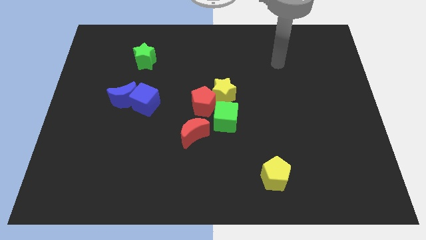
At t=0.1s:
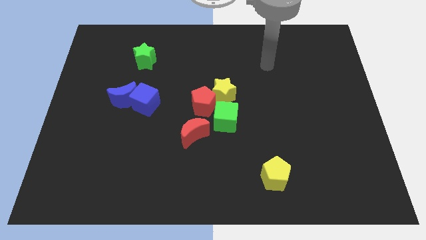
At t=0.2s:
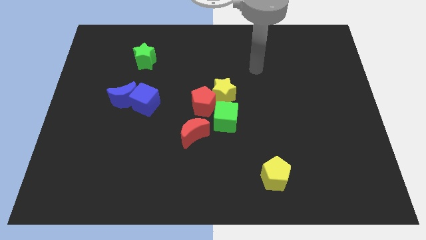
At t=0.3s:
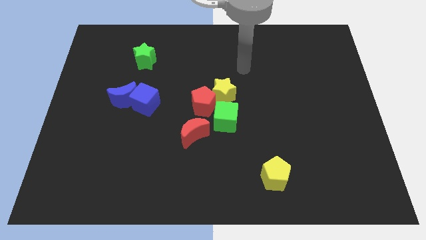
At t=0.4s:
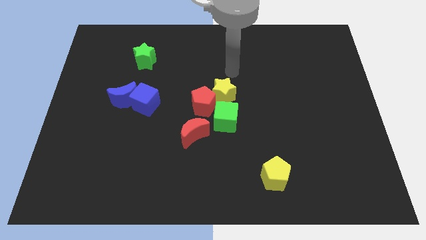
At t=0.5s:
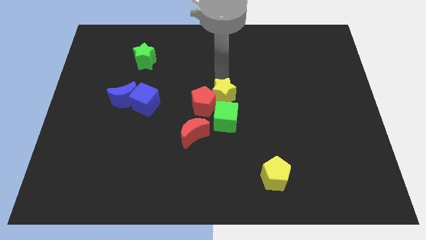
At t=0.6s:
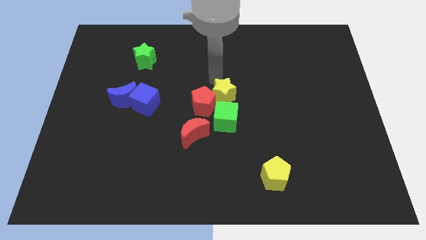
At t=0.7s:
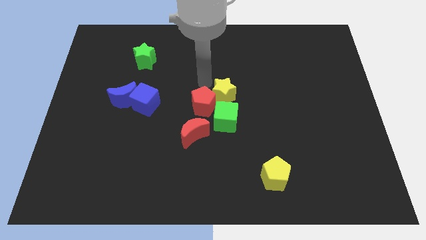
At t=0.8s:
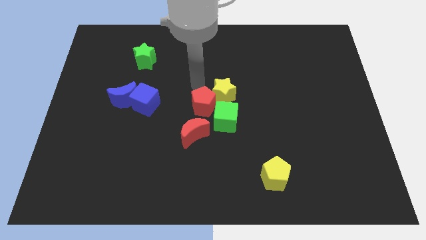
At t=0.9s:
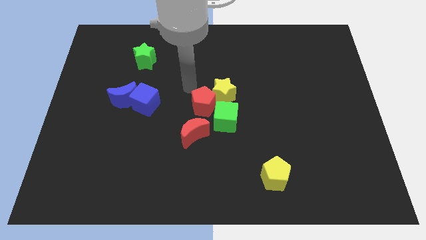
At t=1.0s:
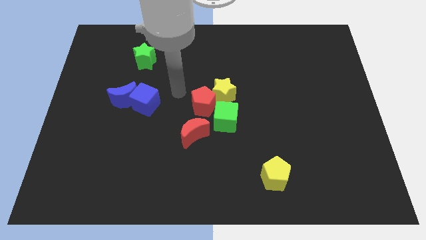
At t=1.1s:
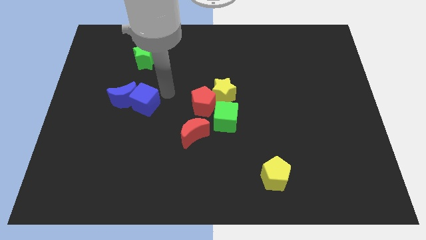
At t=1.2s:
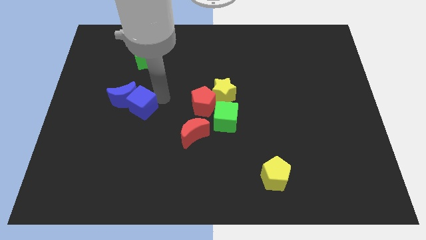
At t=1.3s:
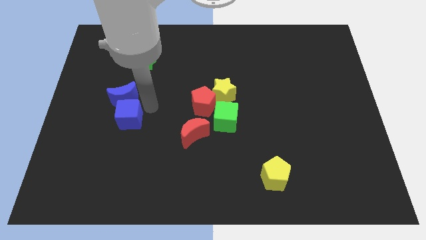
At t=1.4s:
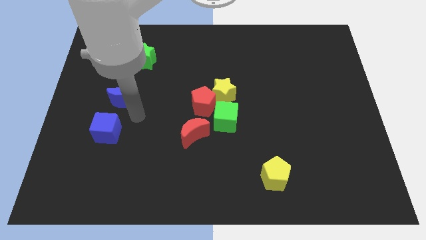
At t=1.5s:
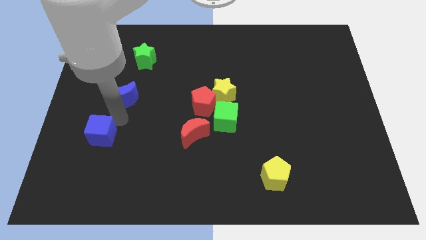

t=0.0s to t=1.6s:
pull the blue moon apart from the blue cube

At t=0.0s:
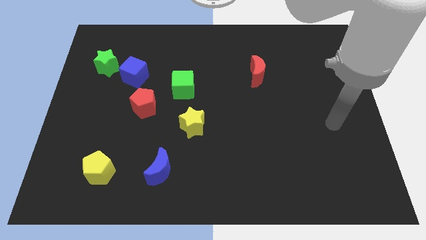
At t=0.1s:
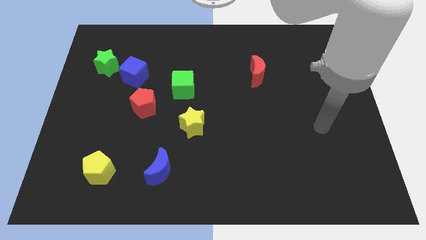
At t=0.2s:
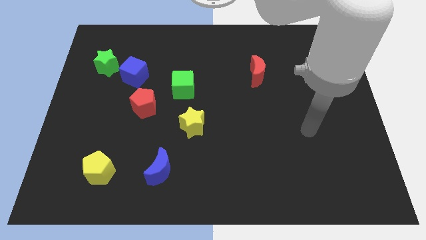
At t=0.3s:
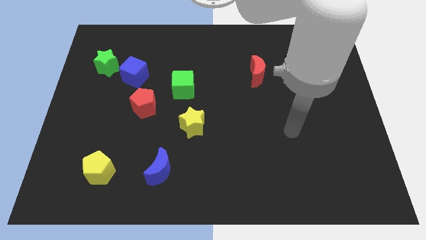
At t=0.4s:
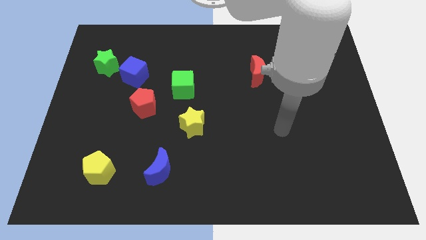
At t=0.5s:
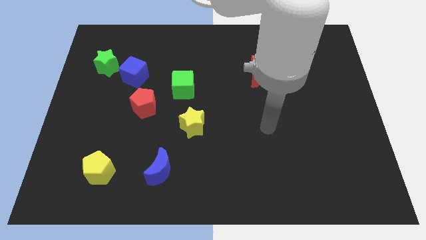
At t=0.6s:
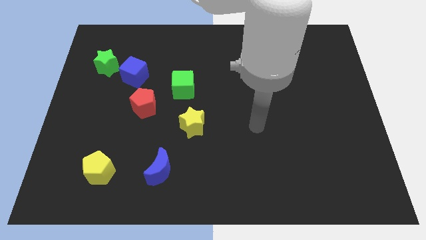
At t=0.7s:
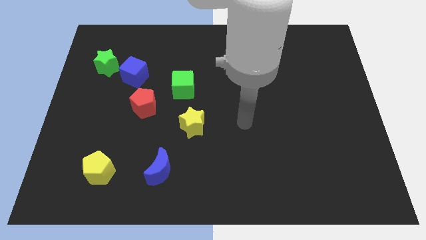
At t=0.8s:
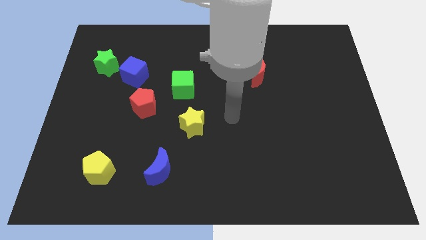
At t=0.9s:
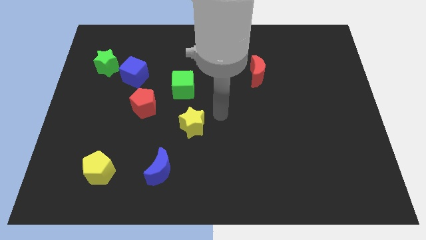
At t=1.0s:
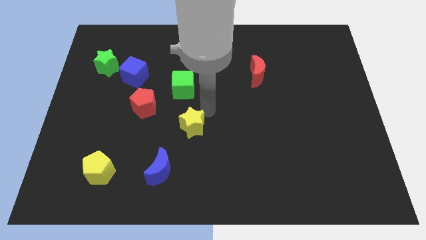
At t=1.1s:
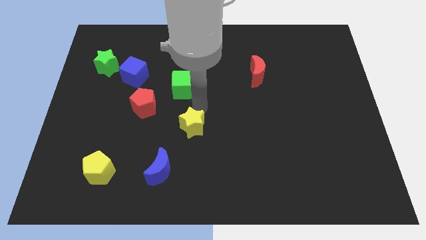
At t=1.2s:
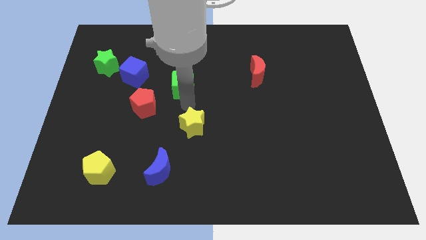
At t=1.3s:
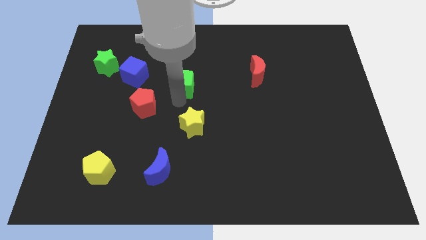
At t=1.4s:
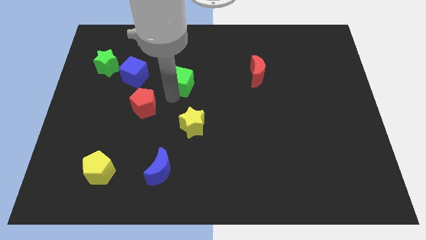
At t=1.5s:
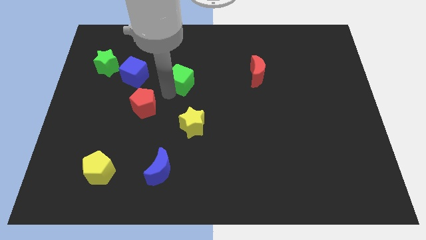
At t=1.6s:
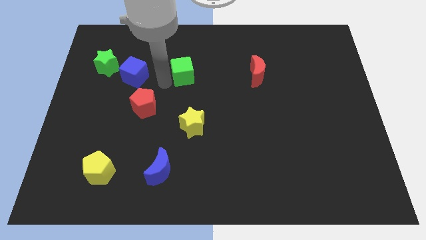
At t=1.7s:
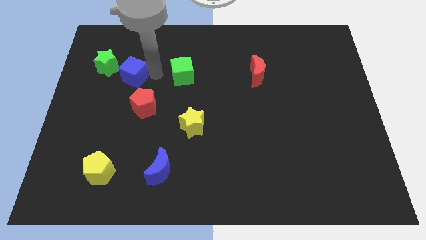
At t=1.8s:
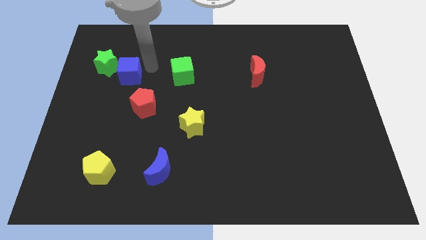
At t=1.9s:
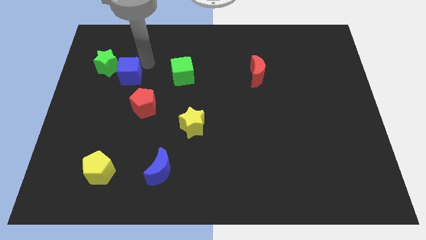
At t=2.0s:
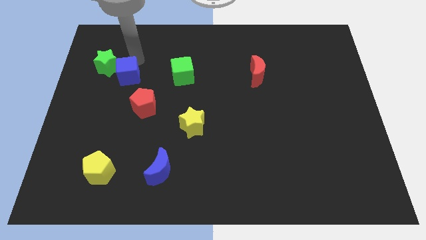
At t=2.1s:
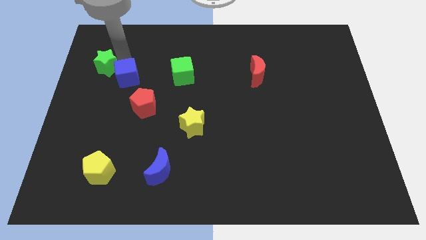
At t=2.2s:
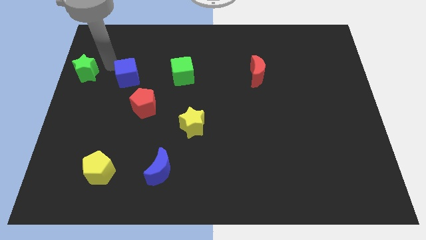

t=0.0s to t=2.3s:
pull the blue cube apart from the green star

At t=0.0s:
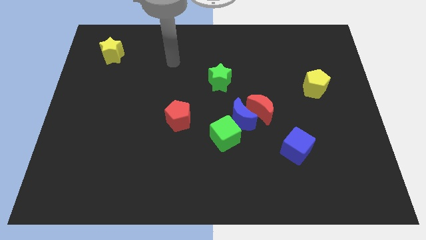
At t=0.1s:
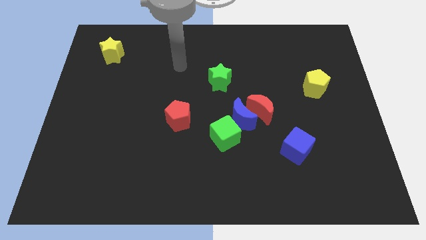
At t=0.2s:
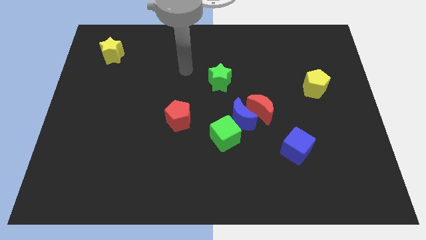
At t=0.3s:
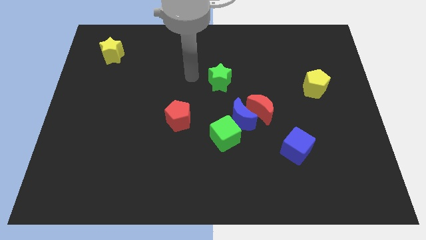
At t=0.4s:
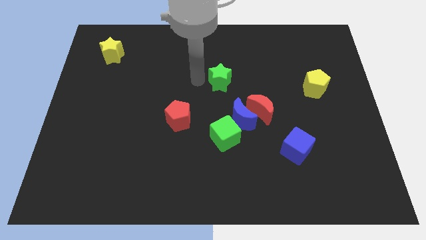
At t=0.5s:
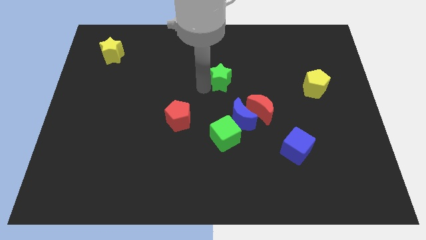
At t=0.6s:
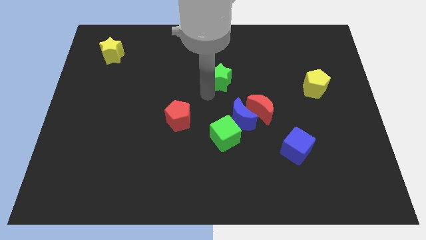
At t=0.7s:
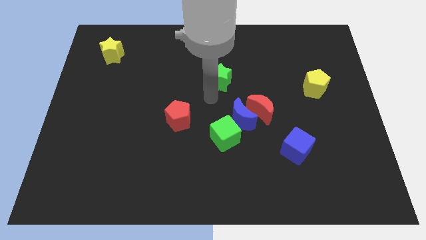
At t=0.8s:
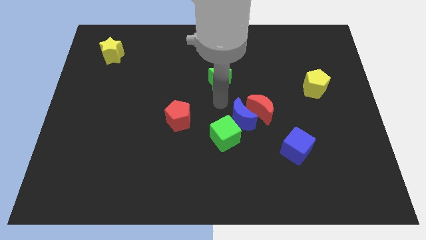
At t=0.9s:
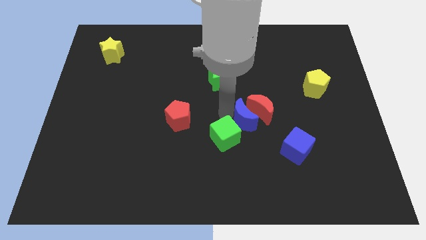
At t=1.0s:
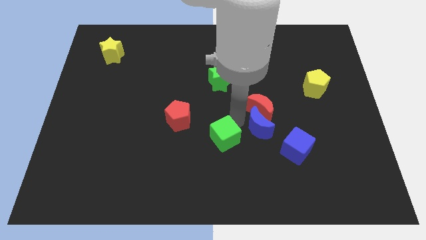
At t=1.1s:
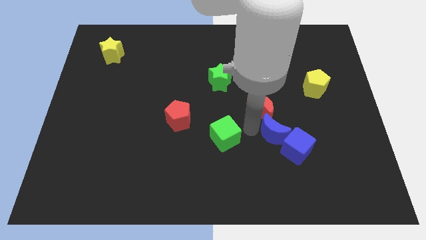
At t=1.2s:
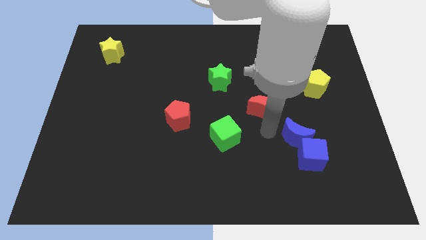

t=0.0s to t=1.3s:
move the red moon away from the blue moon

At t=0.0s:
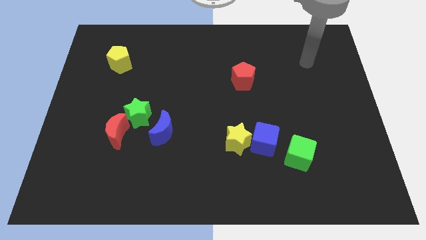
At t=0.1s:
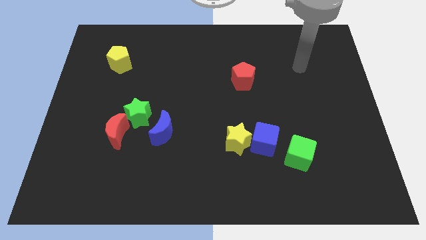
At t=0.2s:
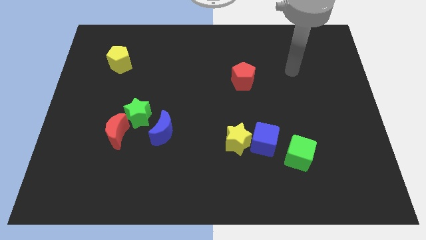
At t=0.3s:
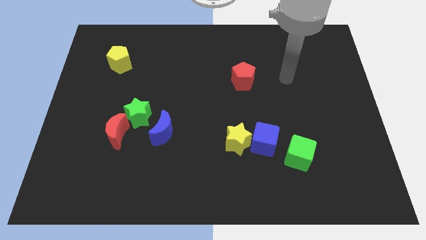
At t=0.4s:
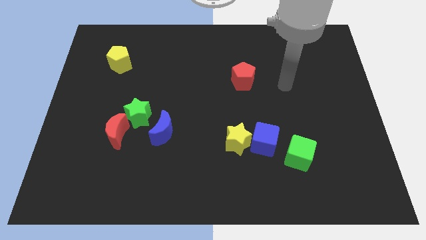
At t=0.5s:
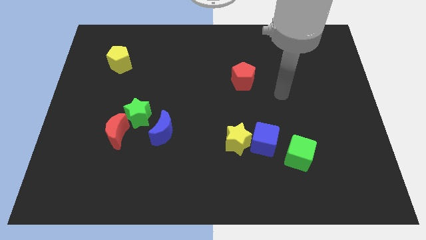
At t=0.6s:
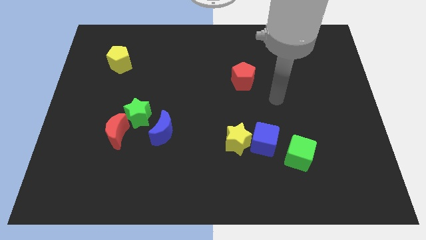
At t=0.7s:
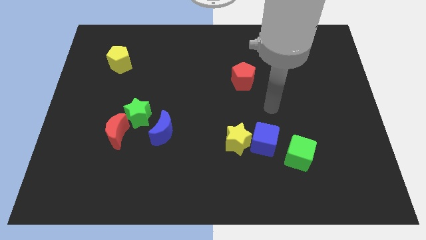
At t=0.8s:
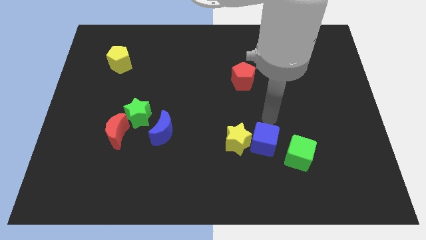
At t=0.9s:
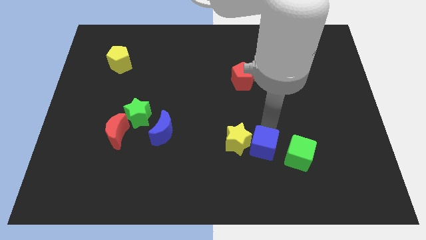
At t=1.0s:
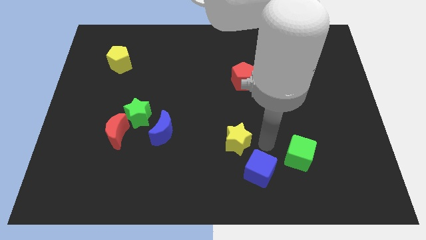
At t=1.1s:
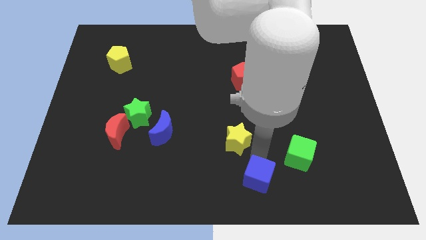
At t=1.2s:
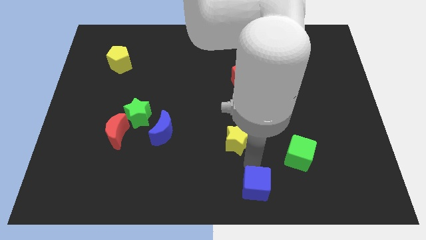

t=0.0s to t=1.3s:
move the yellow star away from the blue cube

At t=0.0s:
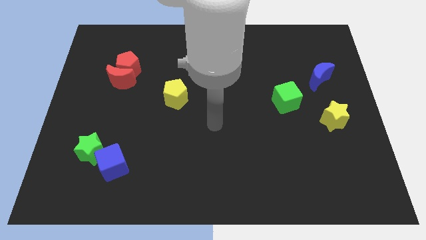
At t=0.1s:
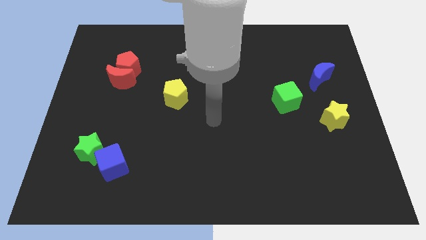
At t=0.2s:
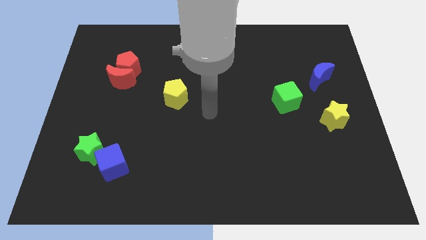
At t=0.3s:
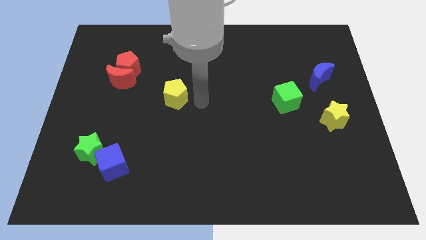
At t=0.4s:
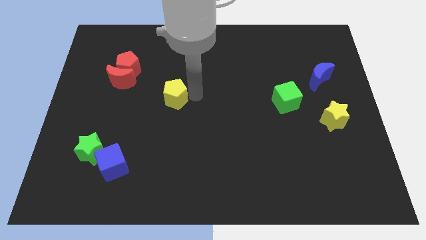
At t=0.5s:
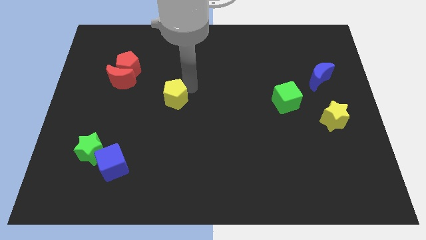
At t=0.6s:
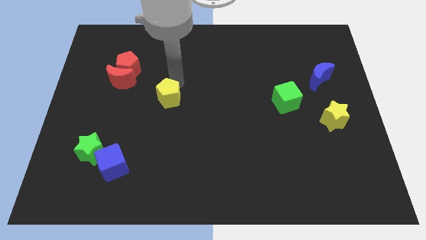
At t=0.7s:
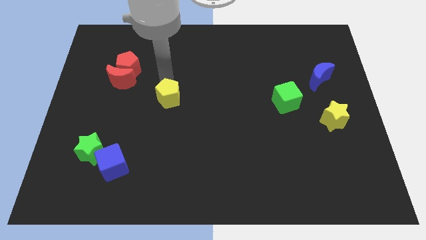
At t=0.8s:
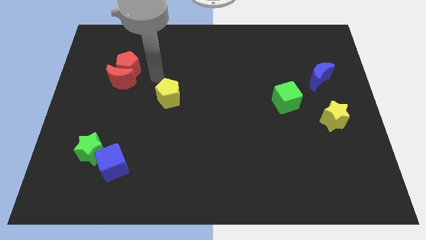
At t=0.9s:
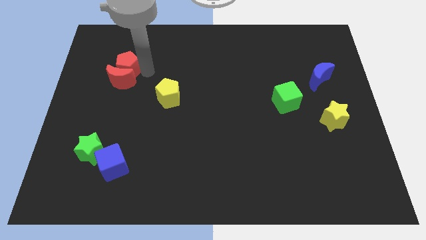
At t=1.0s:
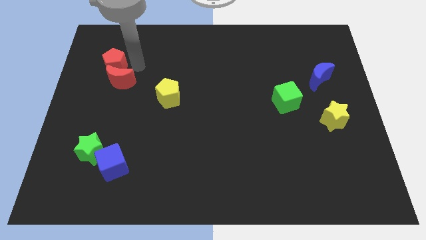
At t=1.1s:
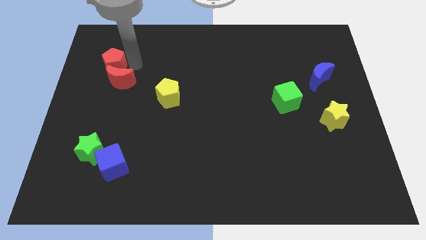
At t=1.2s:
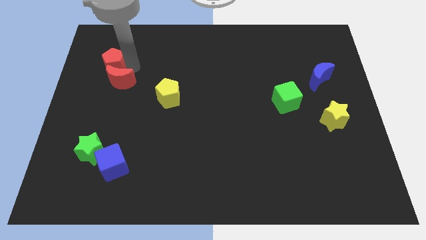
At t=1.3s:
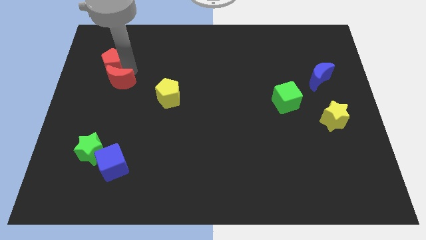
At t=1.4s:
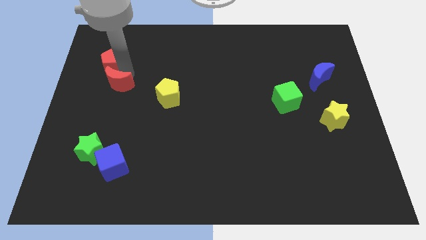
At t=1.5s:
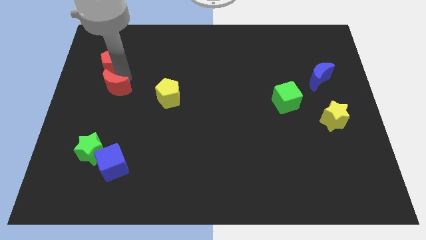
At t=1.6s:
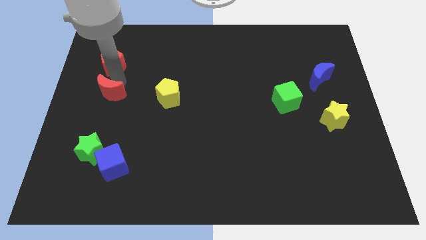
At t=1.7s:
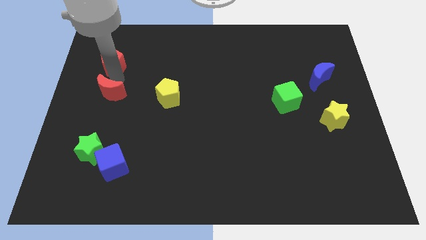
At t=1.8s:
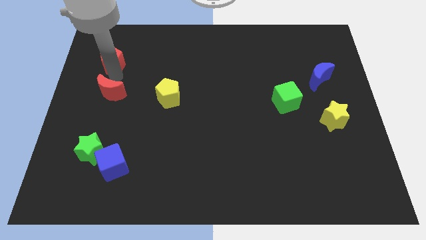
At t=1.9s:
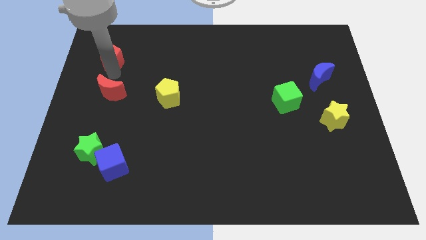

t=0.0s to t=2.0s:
pull the red moon apart from the red pentagon

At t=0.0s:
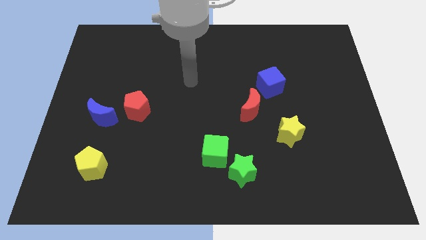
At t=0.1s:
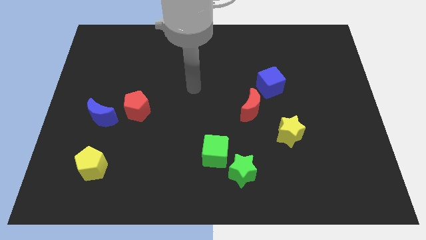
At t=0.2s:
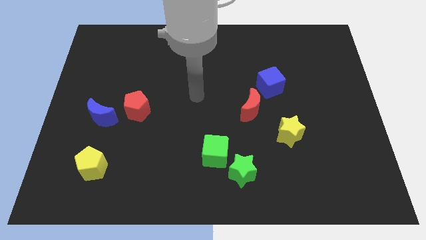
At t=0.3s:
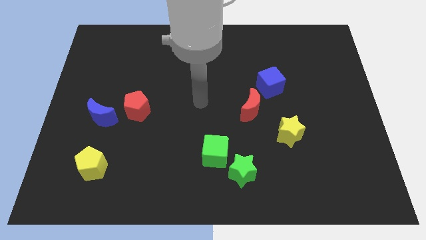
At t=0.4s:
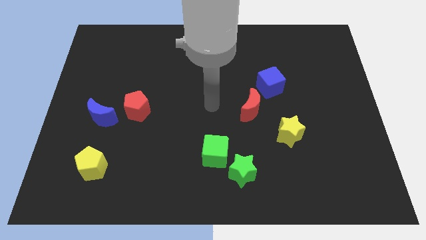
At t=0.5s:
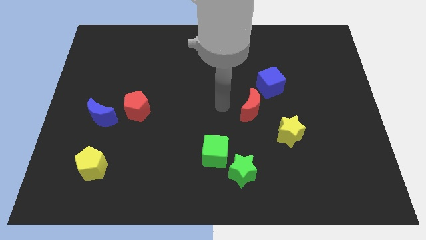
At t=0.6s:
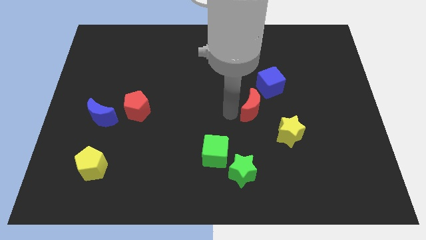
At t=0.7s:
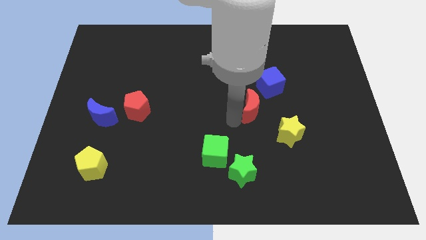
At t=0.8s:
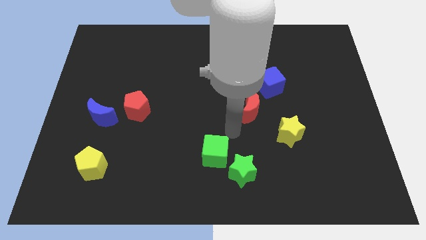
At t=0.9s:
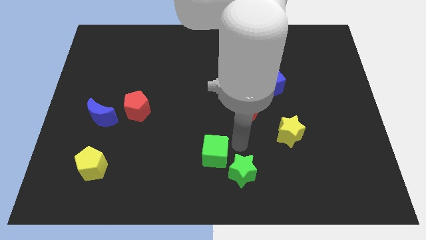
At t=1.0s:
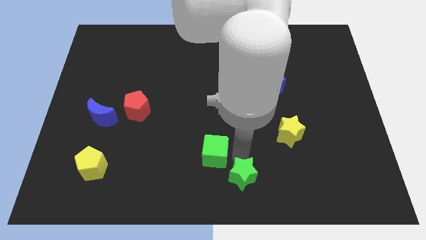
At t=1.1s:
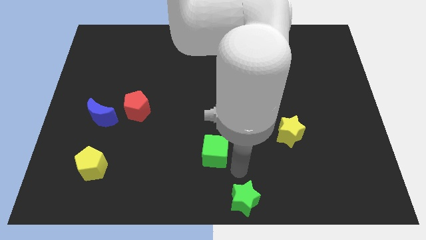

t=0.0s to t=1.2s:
move the green cube away from the green star
